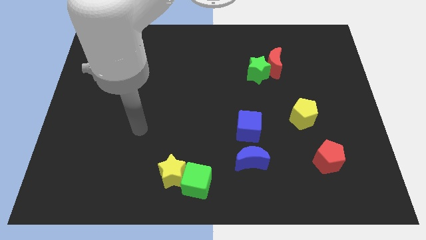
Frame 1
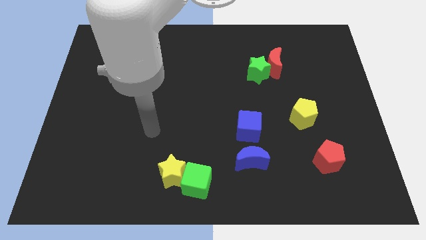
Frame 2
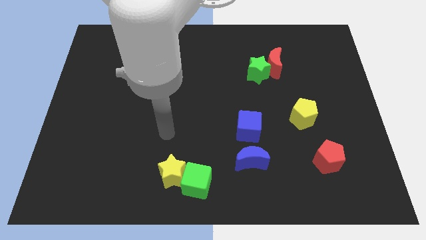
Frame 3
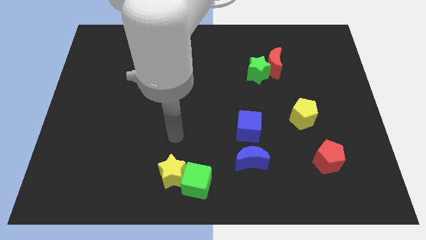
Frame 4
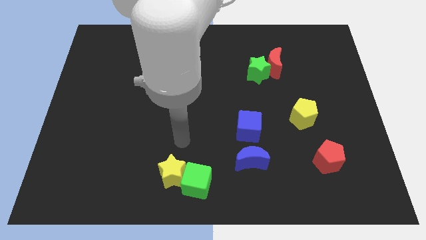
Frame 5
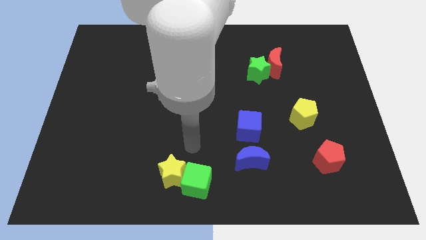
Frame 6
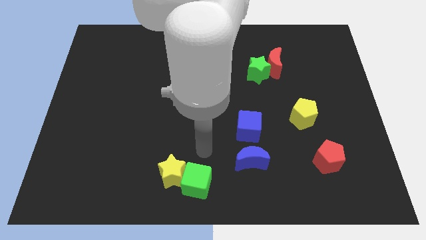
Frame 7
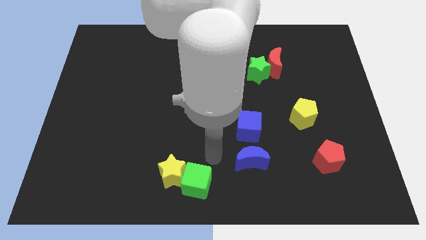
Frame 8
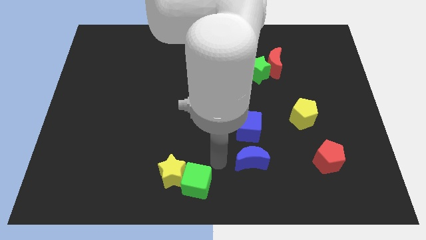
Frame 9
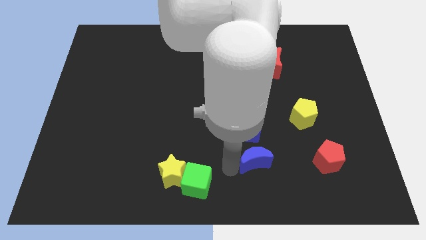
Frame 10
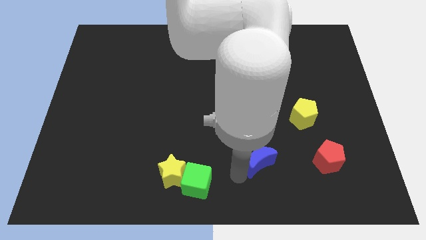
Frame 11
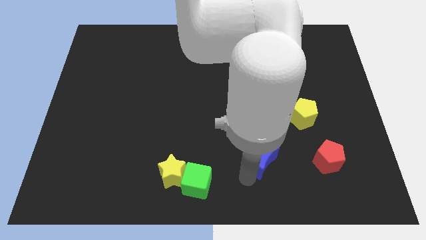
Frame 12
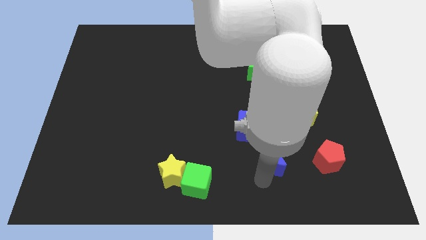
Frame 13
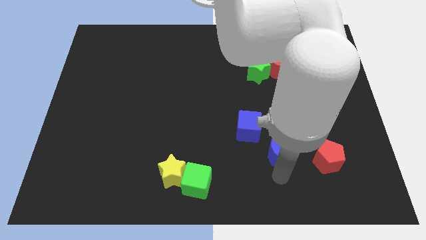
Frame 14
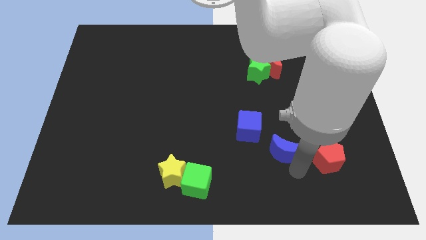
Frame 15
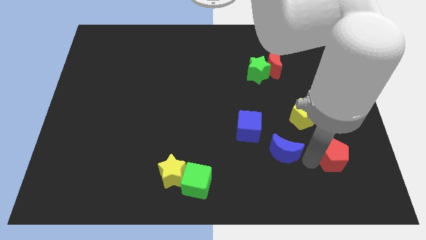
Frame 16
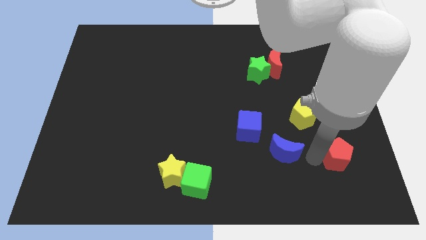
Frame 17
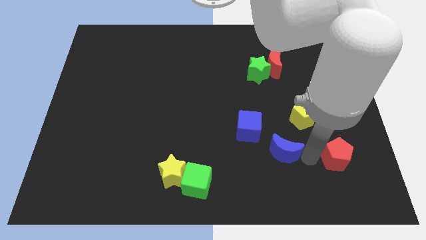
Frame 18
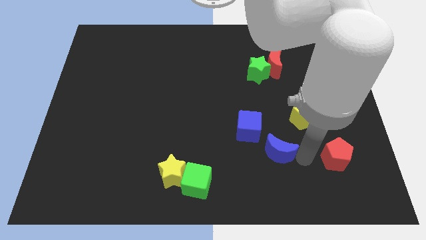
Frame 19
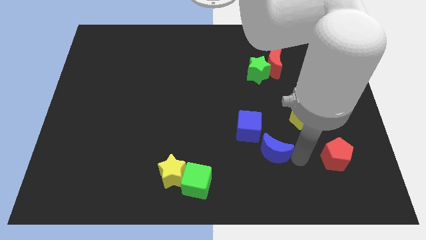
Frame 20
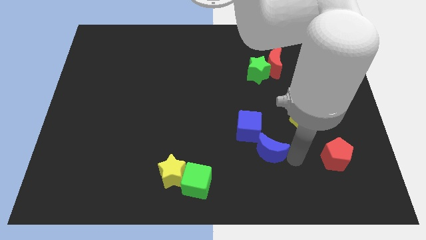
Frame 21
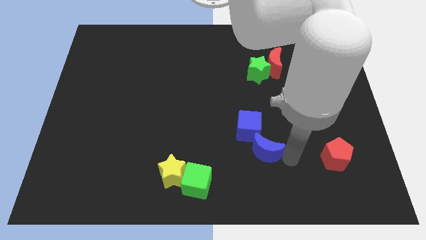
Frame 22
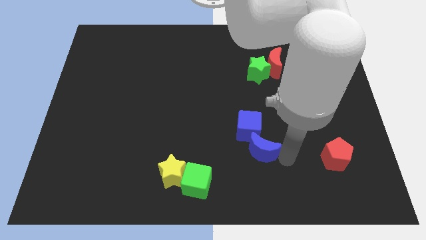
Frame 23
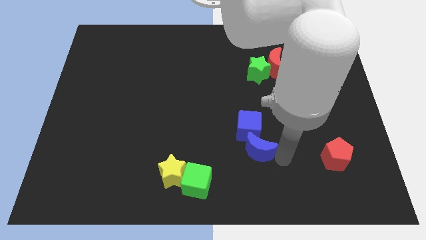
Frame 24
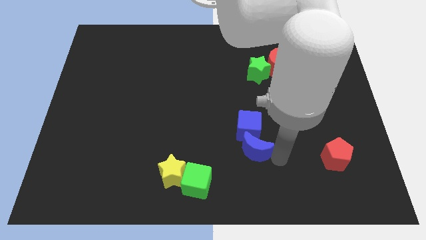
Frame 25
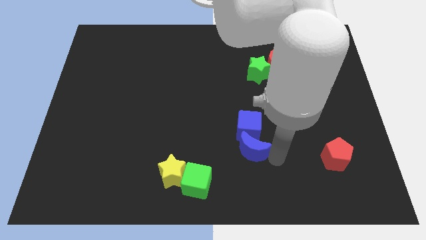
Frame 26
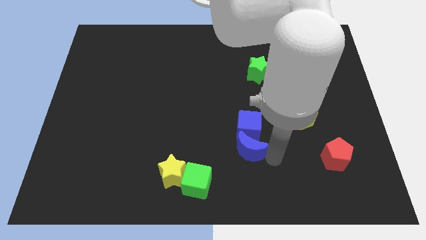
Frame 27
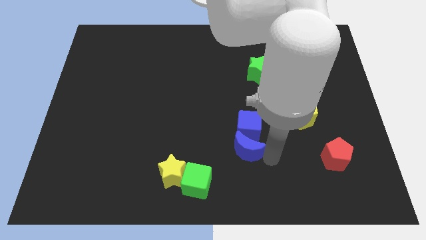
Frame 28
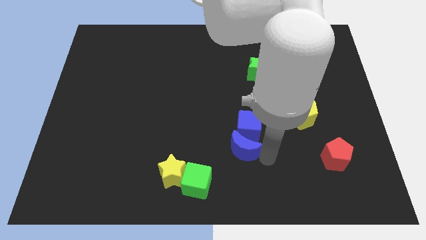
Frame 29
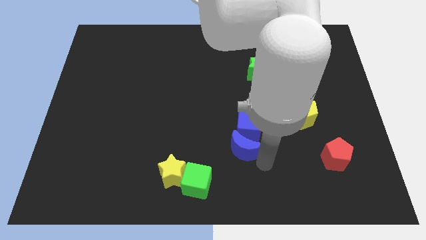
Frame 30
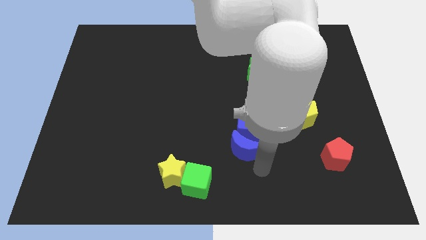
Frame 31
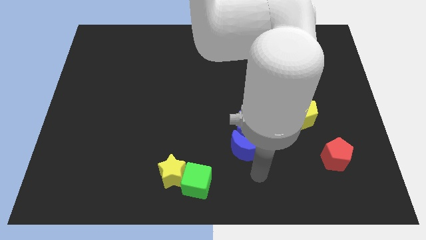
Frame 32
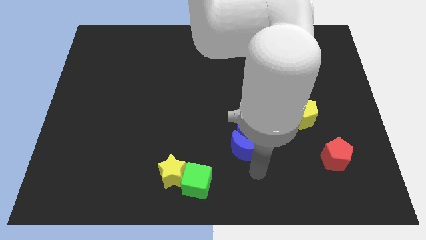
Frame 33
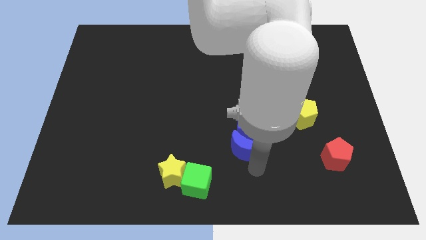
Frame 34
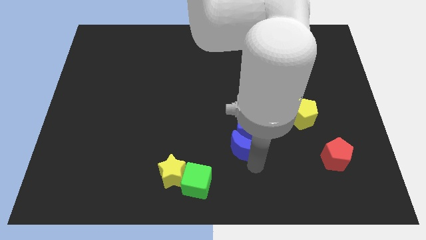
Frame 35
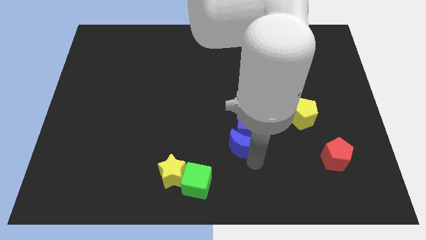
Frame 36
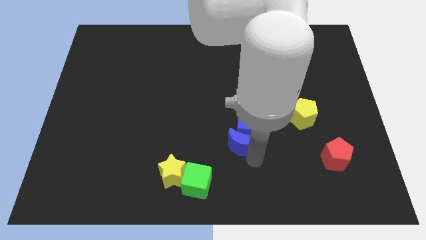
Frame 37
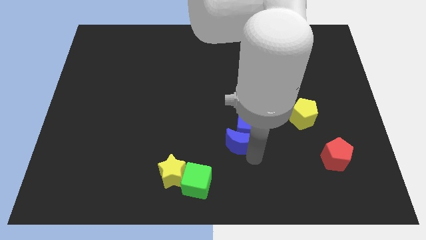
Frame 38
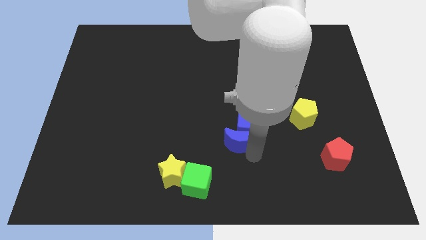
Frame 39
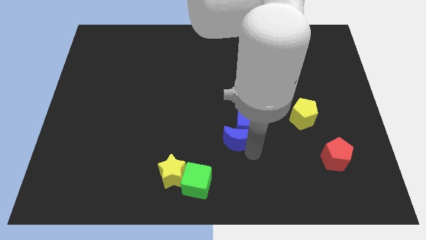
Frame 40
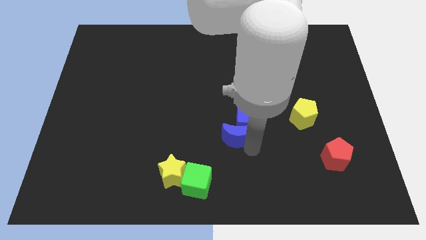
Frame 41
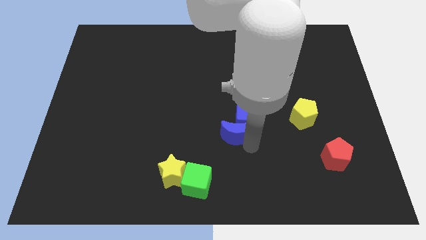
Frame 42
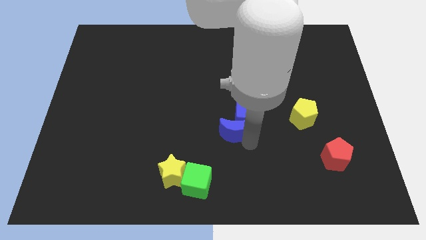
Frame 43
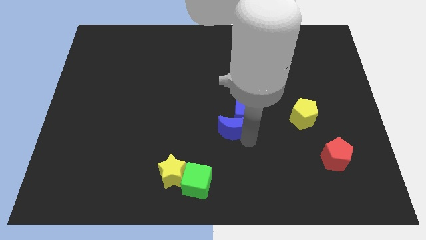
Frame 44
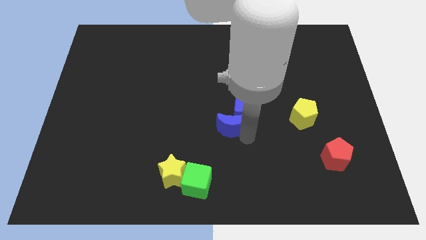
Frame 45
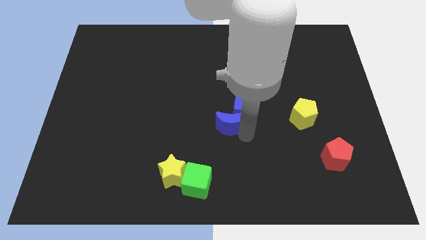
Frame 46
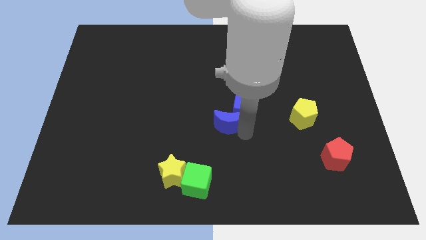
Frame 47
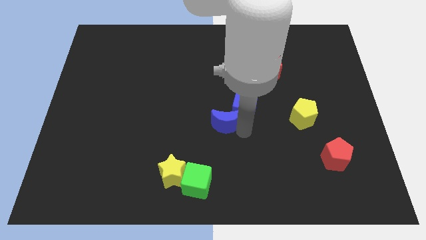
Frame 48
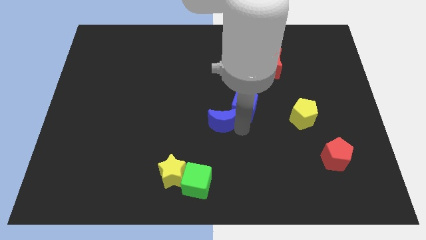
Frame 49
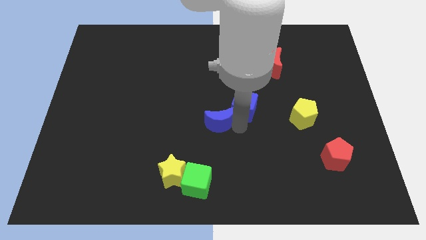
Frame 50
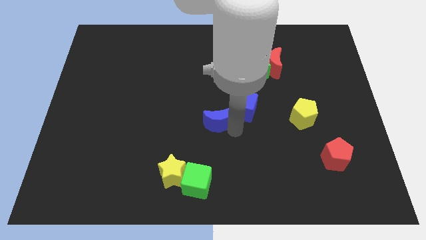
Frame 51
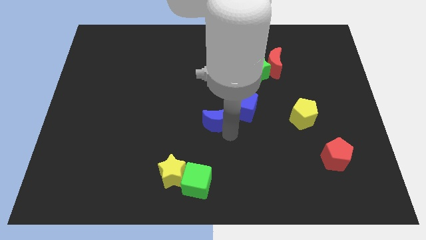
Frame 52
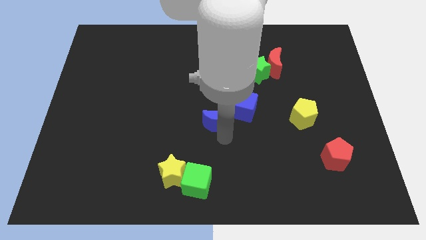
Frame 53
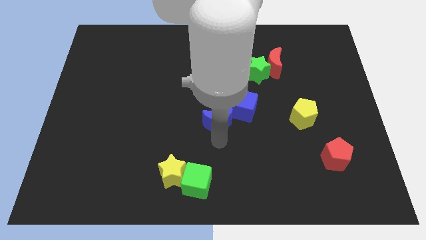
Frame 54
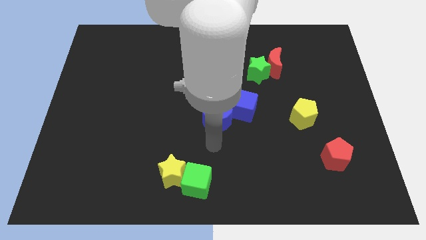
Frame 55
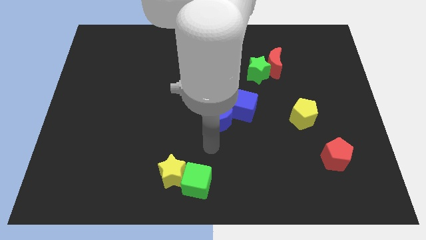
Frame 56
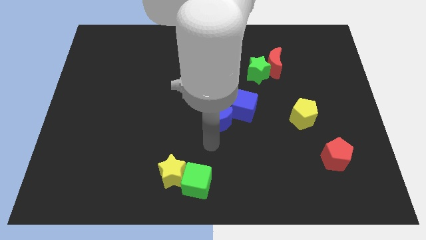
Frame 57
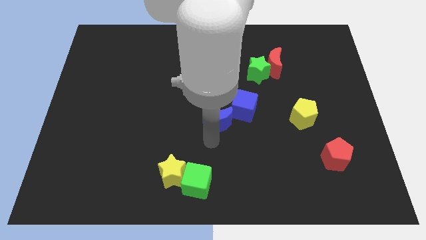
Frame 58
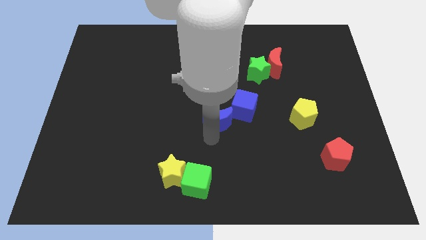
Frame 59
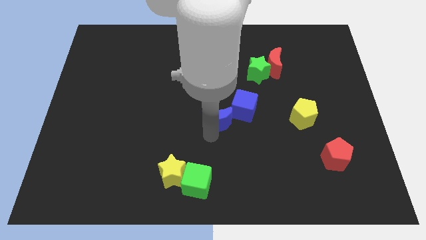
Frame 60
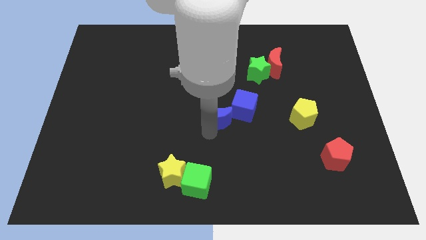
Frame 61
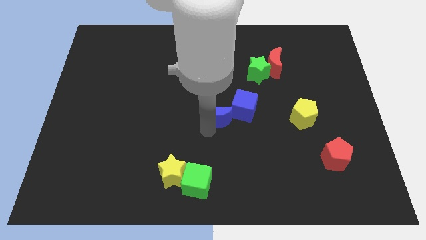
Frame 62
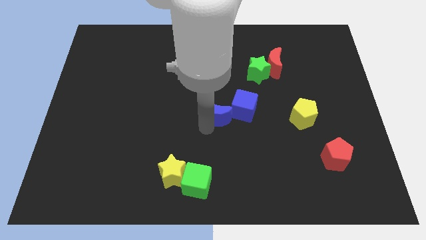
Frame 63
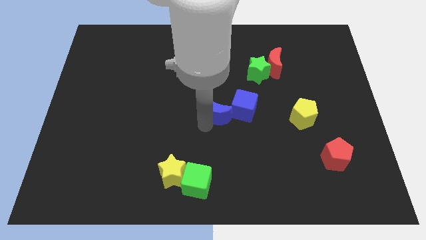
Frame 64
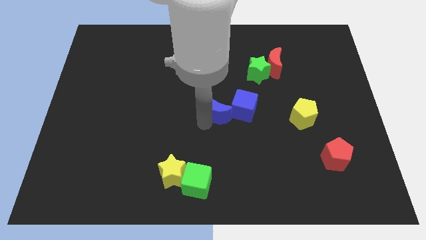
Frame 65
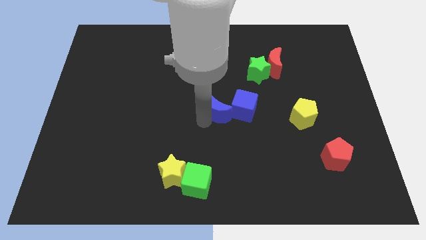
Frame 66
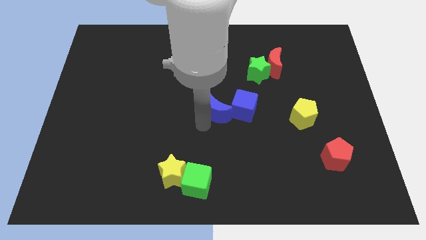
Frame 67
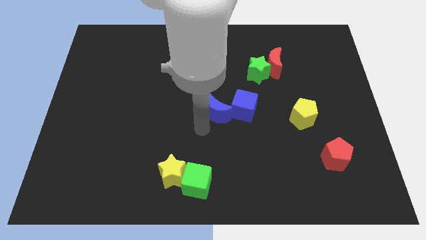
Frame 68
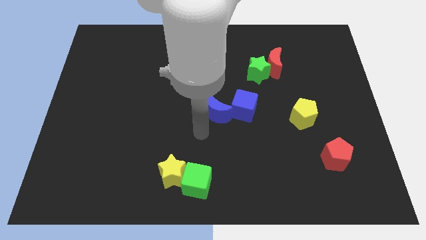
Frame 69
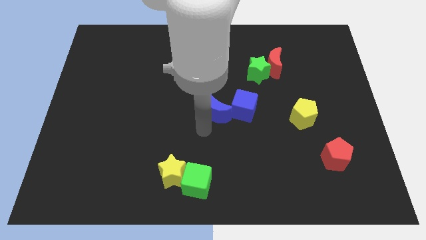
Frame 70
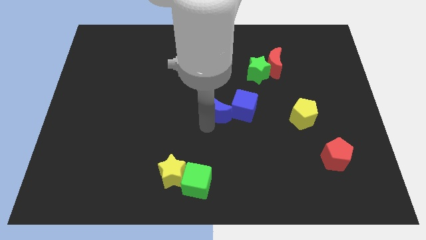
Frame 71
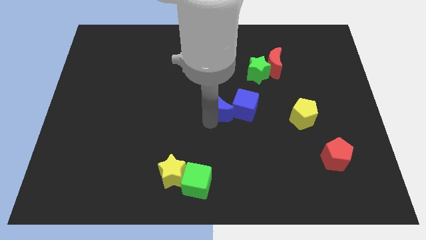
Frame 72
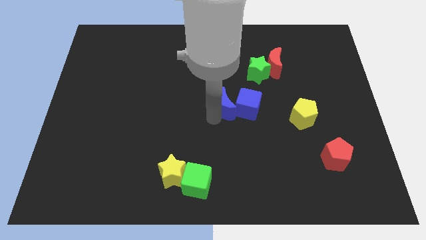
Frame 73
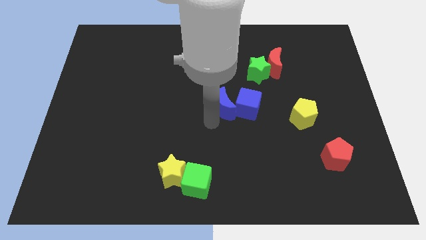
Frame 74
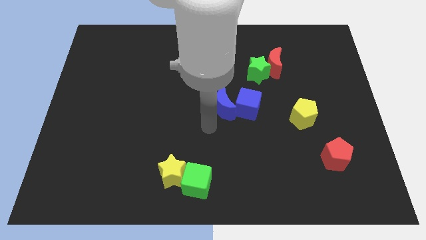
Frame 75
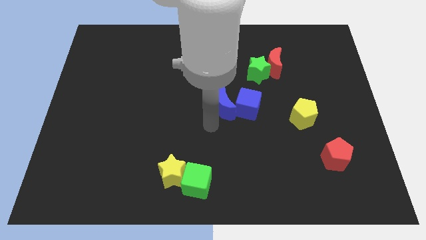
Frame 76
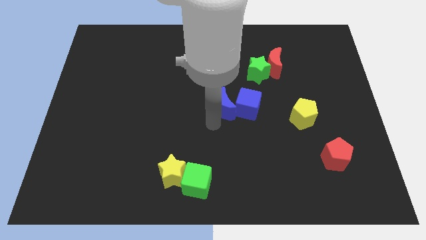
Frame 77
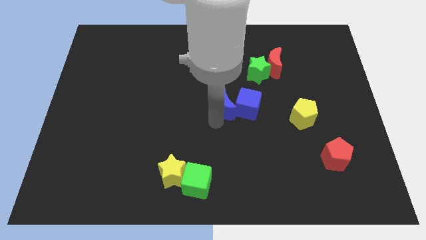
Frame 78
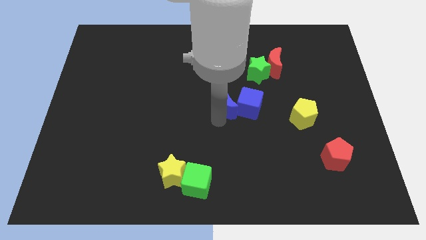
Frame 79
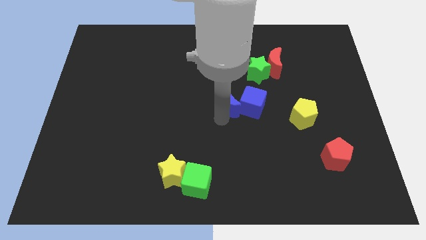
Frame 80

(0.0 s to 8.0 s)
put the blue moon diagonally down and to the left of the green star
